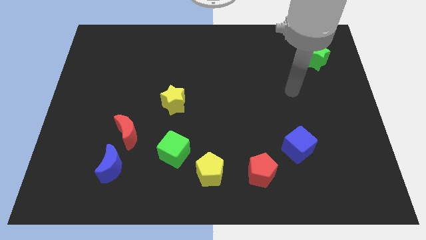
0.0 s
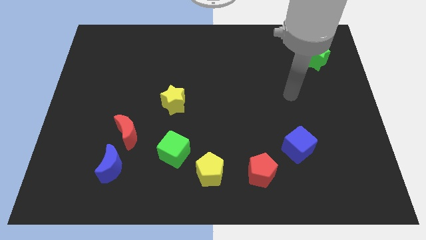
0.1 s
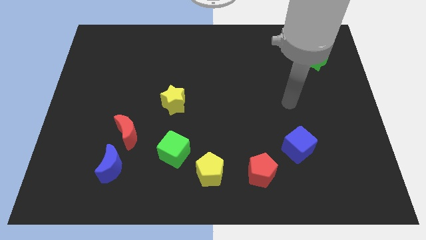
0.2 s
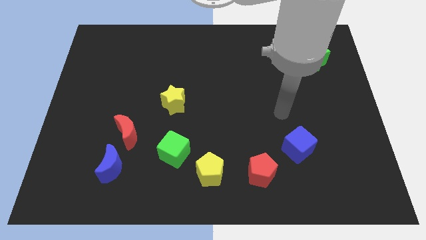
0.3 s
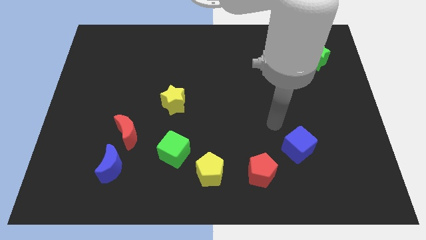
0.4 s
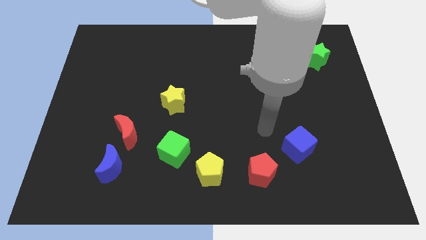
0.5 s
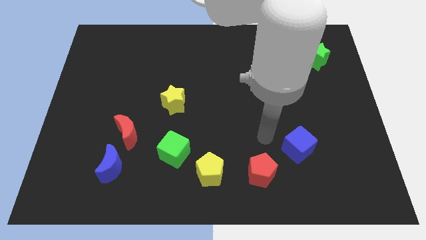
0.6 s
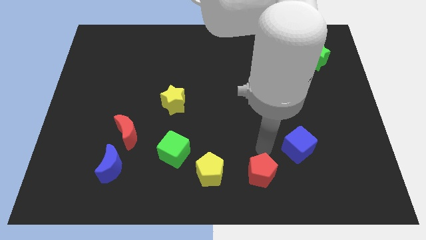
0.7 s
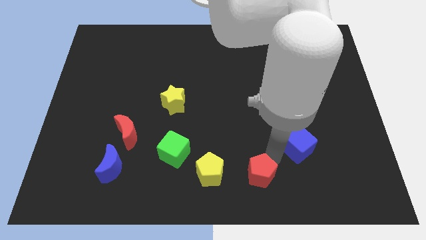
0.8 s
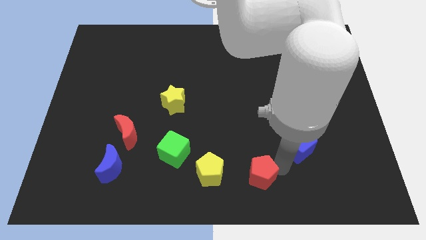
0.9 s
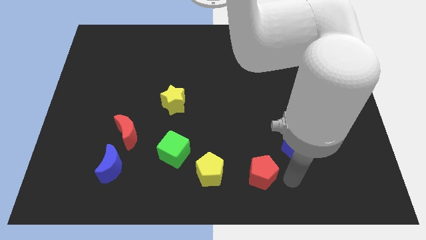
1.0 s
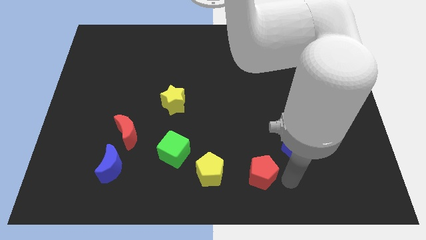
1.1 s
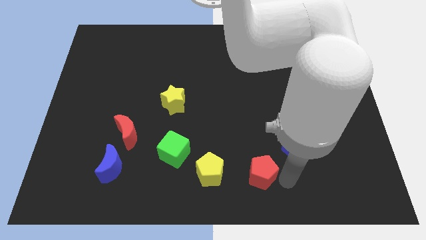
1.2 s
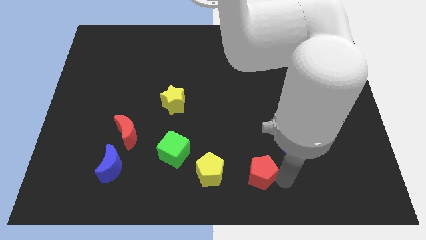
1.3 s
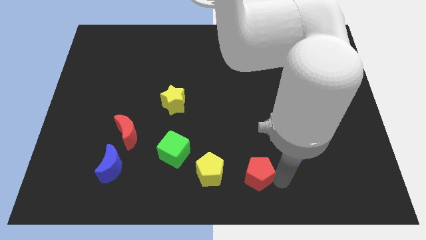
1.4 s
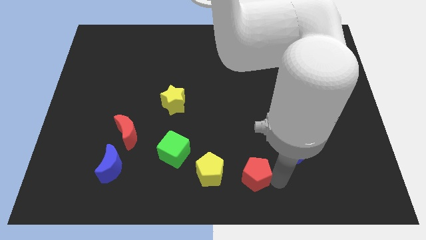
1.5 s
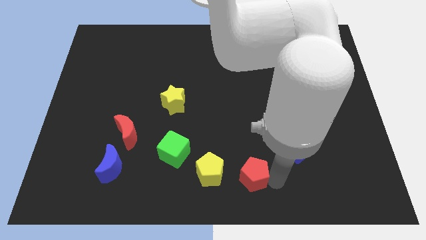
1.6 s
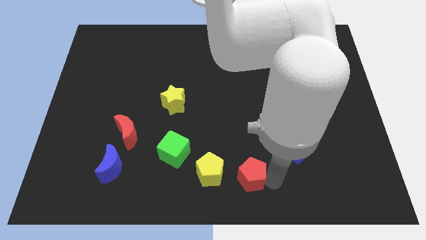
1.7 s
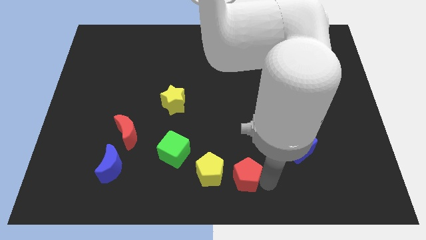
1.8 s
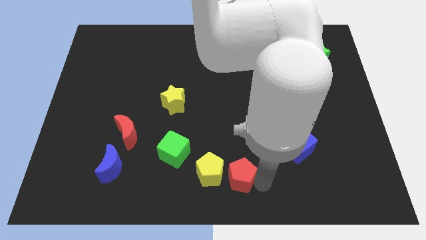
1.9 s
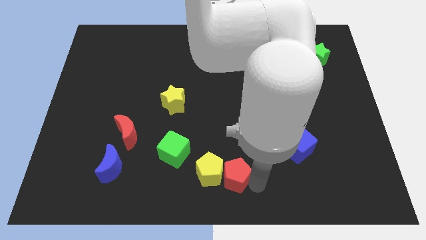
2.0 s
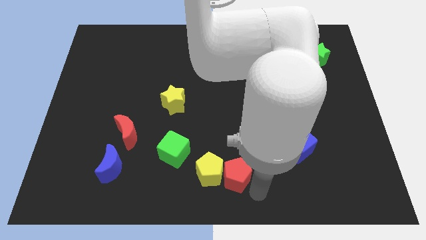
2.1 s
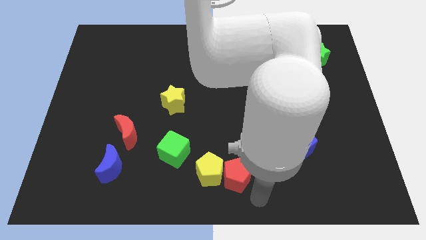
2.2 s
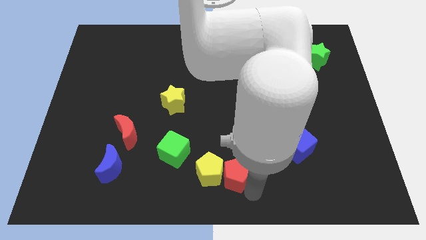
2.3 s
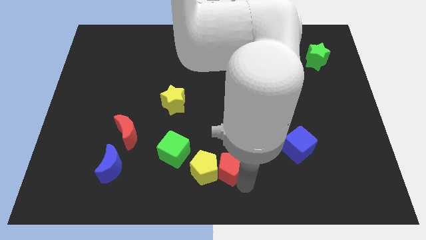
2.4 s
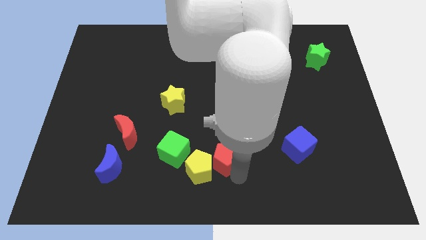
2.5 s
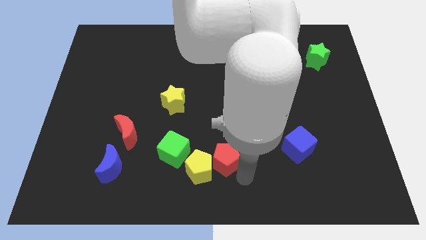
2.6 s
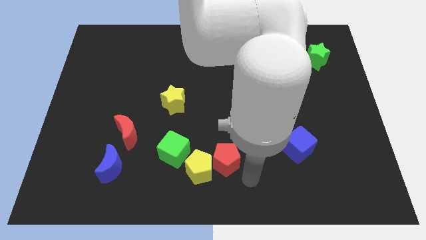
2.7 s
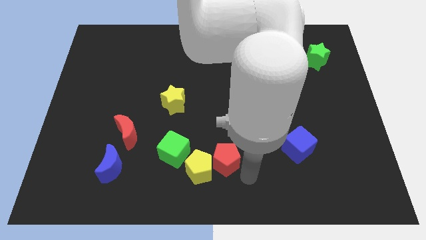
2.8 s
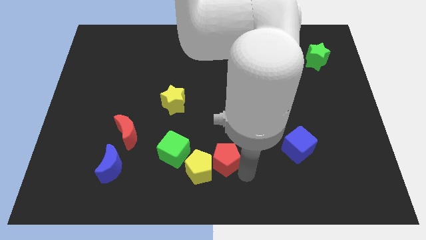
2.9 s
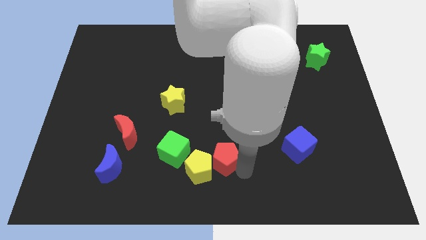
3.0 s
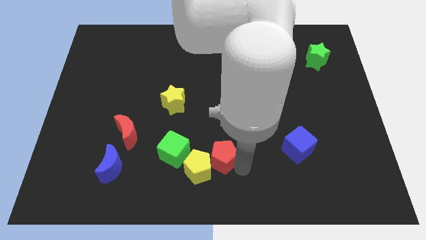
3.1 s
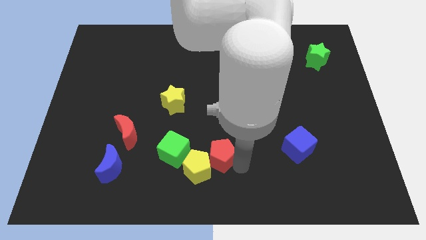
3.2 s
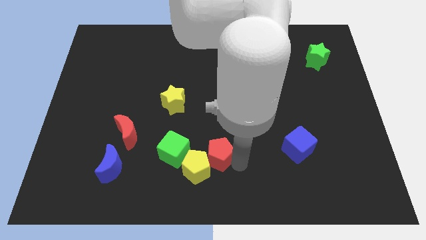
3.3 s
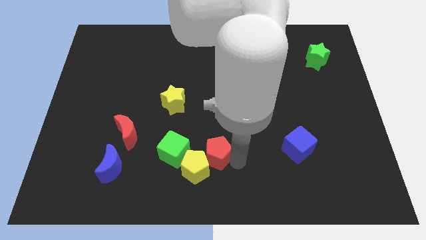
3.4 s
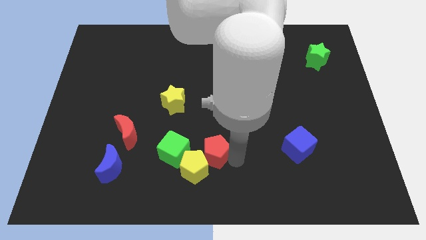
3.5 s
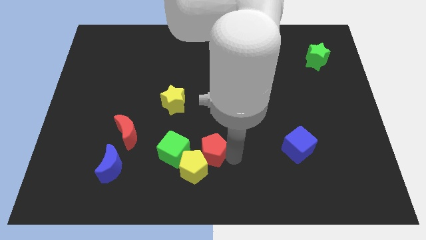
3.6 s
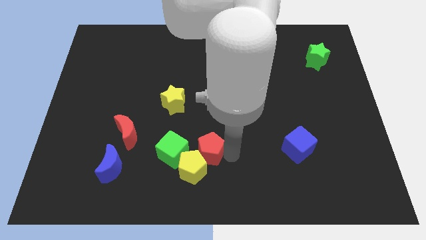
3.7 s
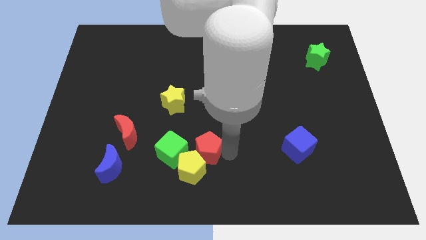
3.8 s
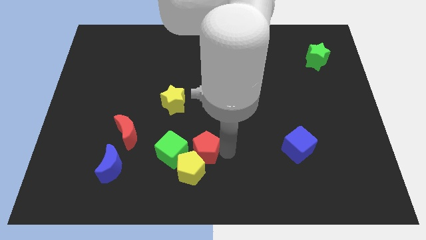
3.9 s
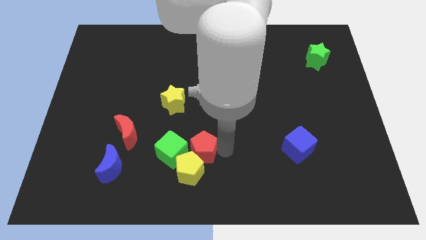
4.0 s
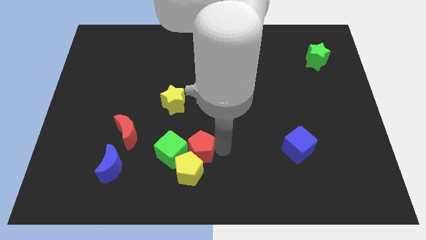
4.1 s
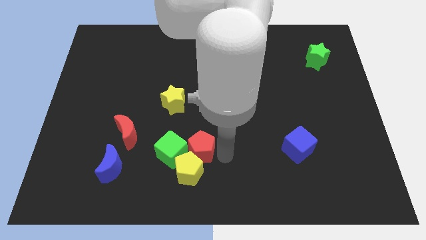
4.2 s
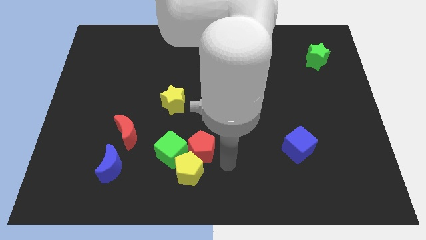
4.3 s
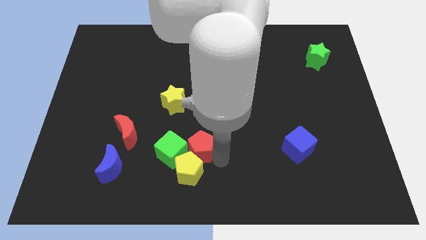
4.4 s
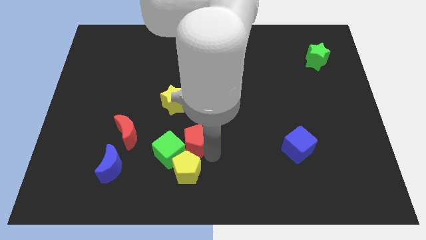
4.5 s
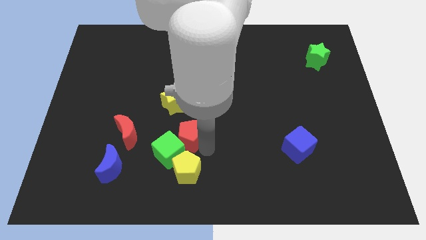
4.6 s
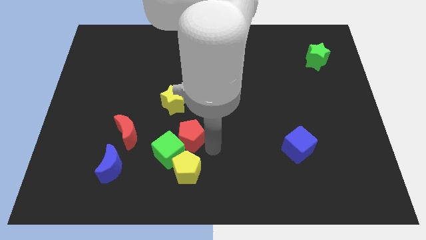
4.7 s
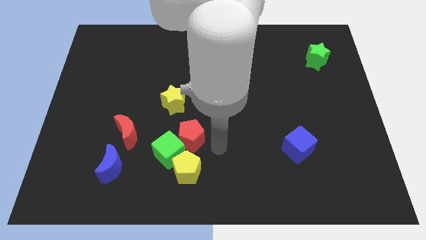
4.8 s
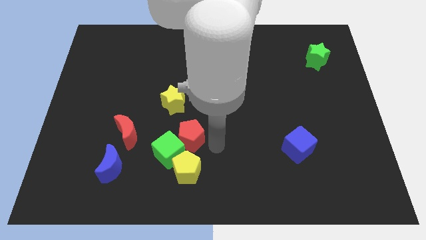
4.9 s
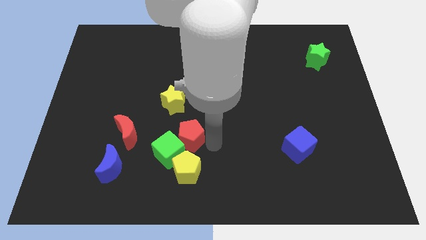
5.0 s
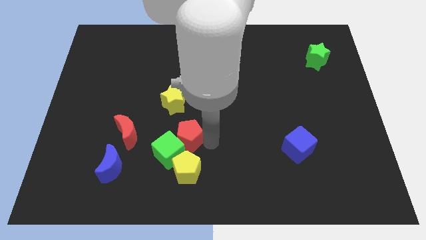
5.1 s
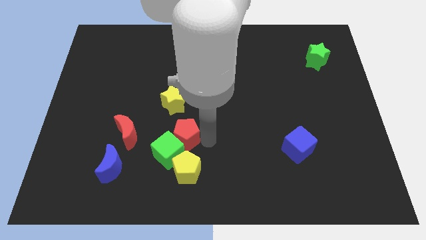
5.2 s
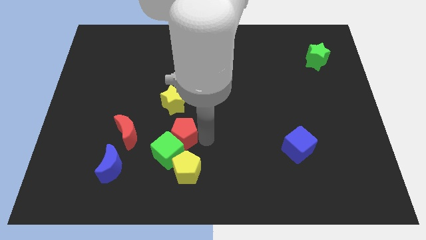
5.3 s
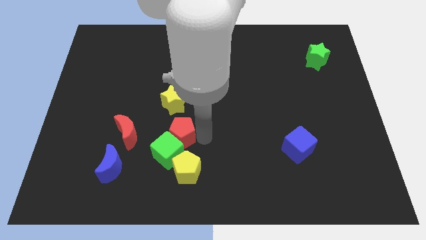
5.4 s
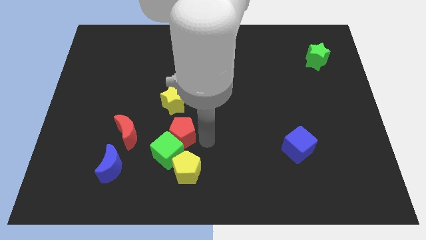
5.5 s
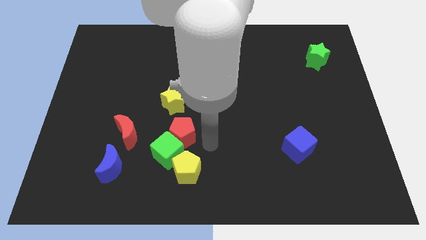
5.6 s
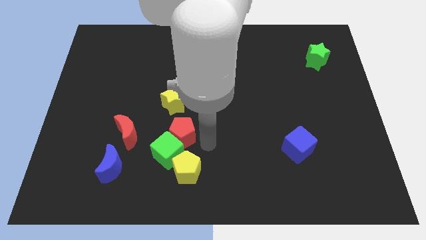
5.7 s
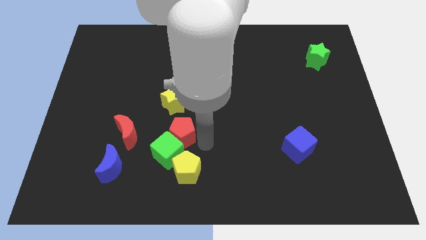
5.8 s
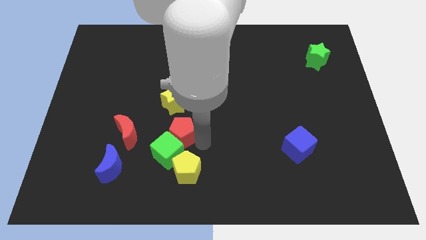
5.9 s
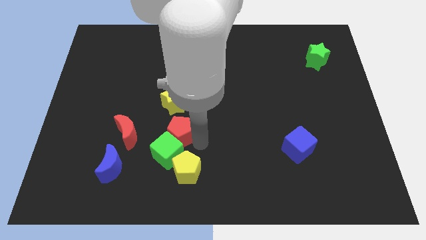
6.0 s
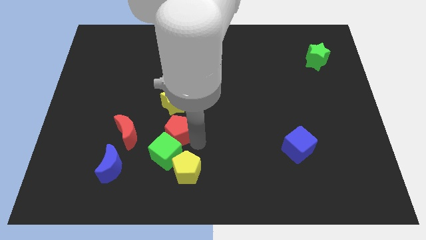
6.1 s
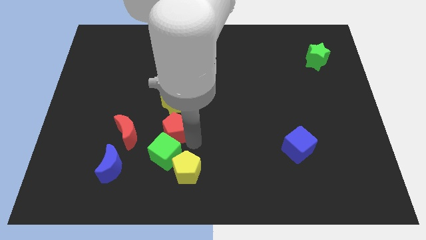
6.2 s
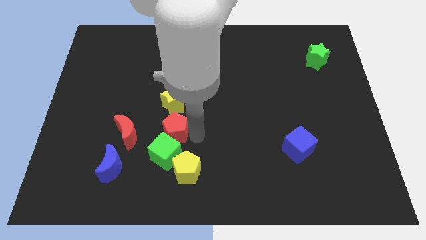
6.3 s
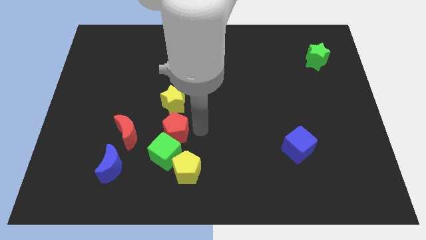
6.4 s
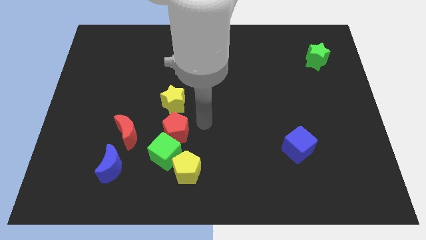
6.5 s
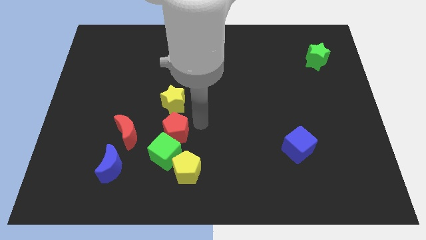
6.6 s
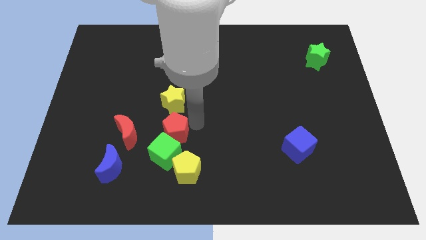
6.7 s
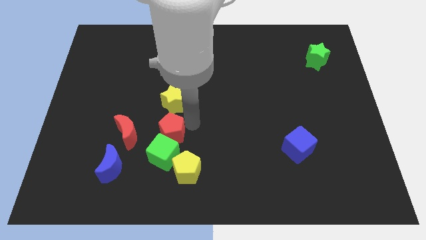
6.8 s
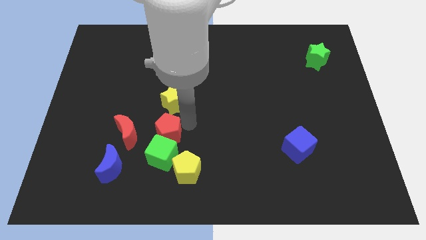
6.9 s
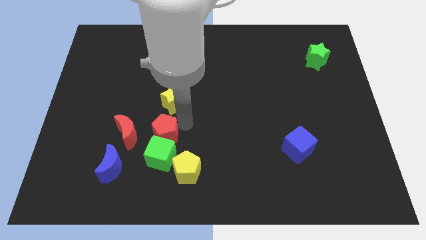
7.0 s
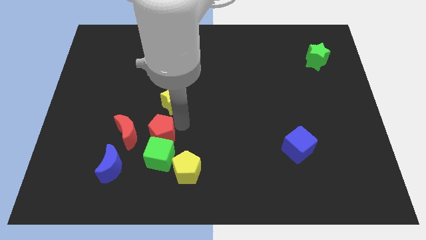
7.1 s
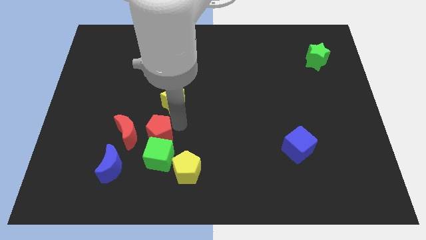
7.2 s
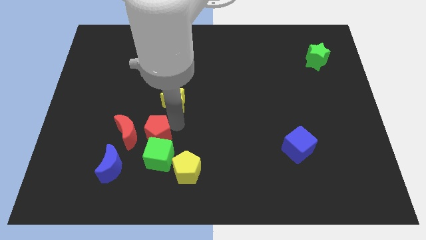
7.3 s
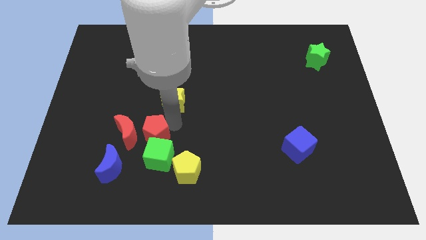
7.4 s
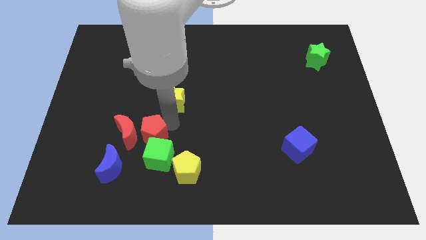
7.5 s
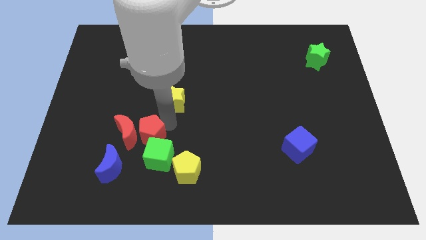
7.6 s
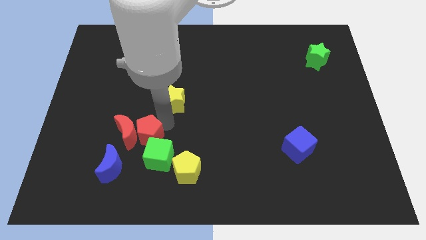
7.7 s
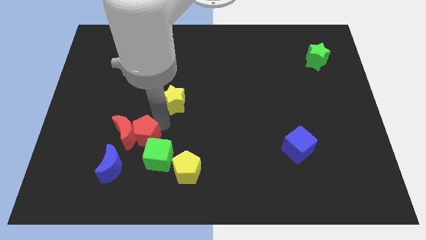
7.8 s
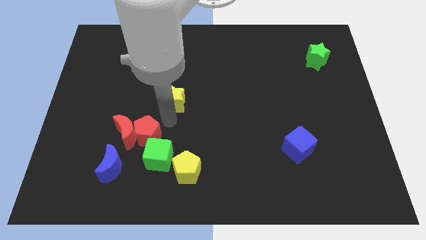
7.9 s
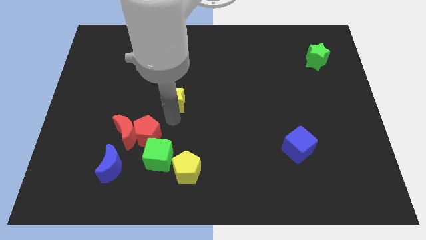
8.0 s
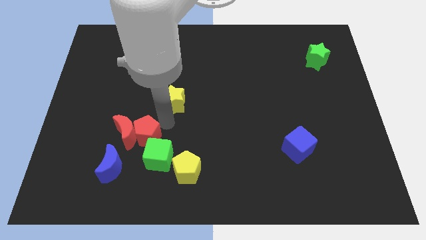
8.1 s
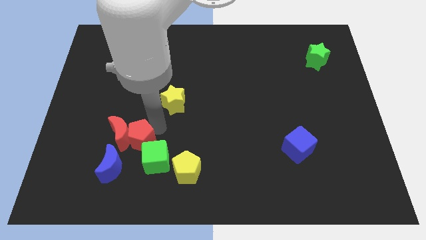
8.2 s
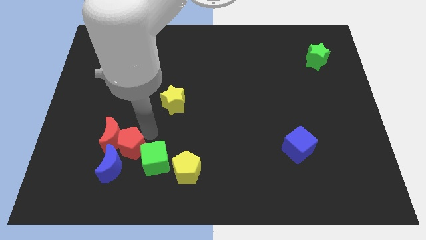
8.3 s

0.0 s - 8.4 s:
push the red pentagon left of the green cube
